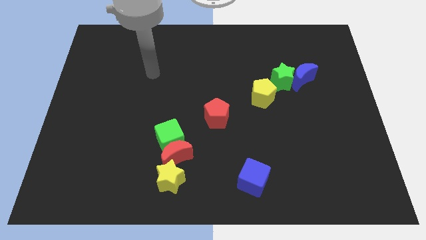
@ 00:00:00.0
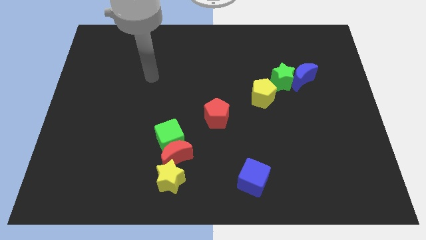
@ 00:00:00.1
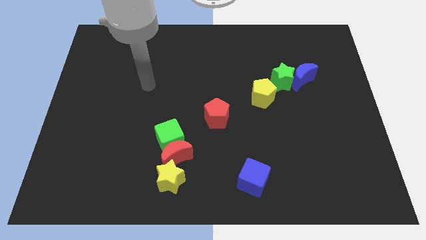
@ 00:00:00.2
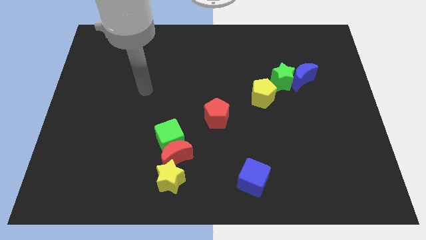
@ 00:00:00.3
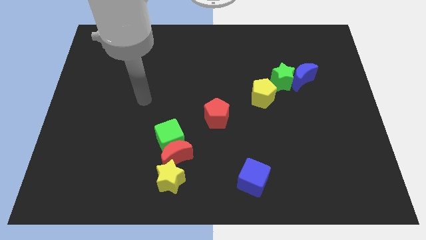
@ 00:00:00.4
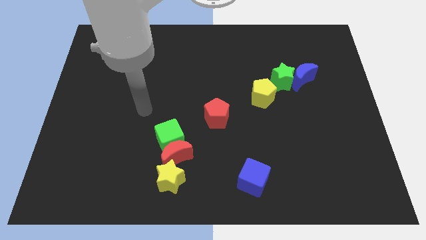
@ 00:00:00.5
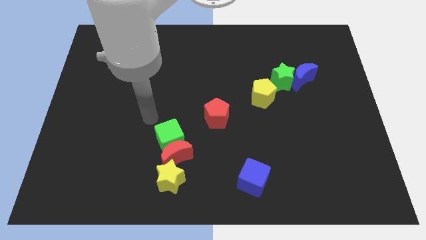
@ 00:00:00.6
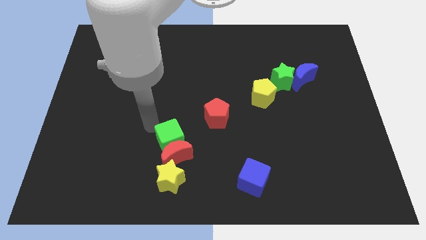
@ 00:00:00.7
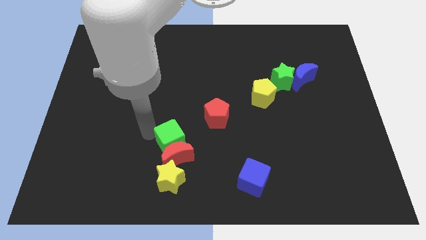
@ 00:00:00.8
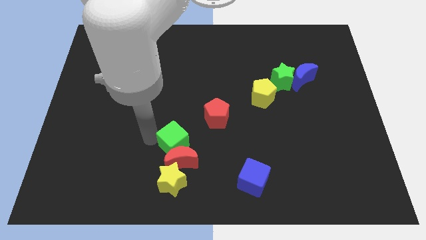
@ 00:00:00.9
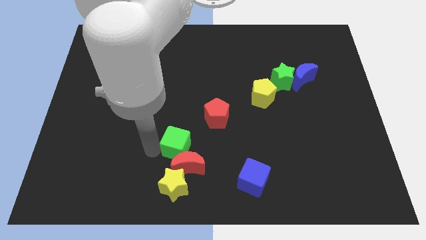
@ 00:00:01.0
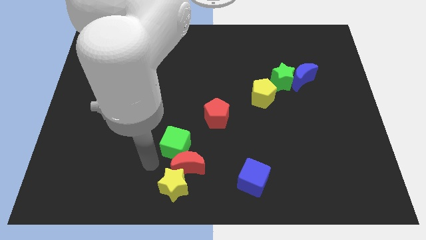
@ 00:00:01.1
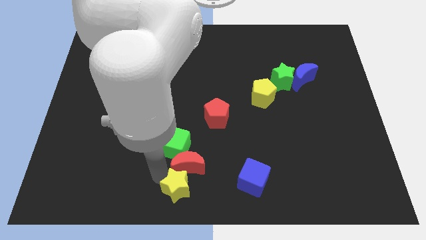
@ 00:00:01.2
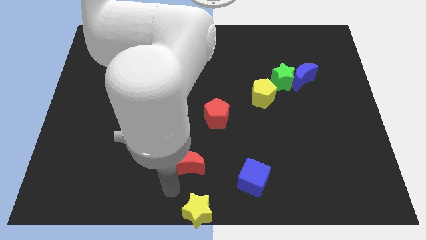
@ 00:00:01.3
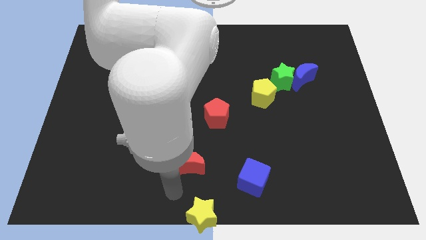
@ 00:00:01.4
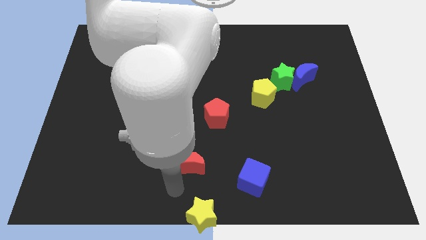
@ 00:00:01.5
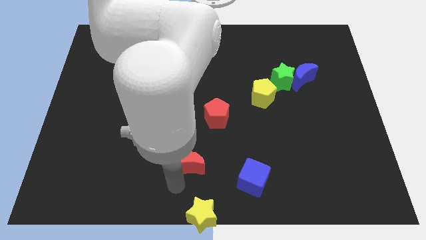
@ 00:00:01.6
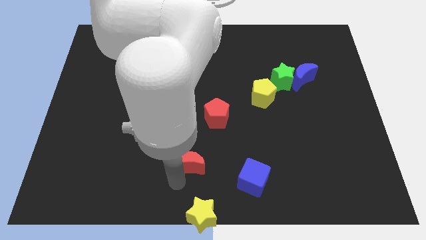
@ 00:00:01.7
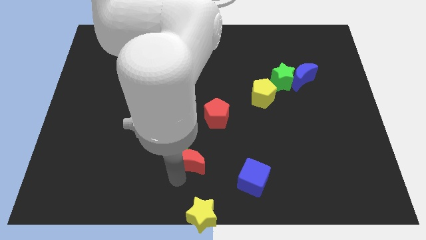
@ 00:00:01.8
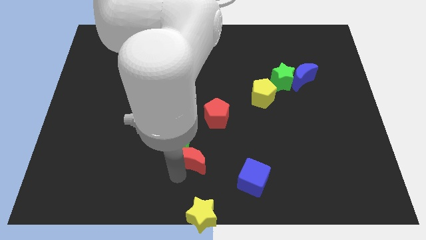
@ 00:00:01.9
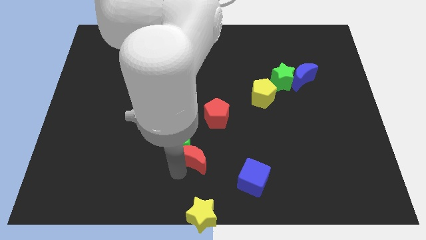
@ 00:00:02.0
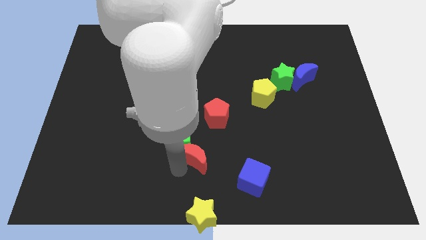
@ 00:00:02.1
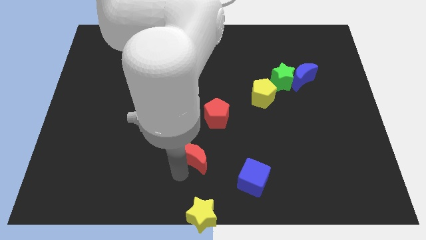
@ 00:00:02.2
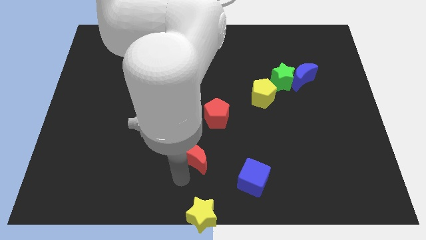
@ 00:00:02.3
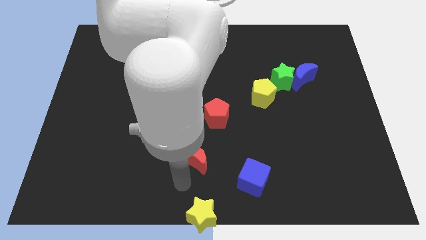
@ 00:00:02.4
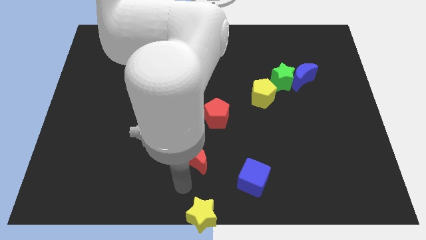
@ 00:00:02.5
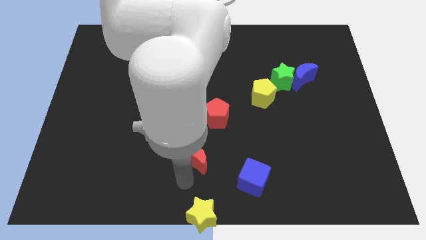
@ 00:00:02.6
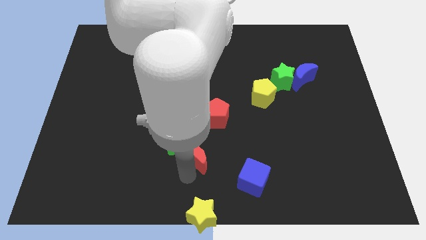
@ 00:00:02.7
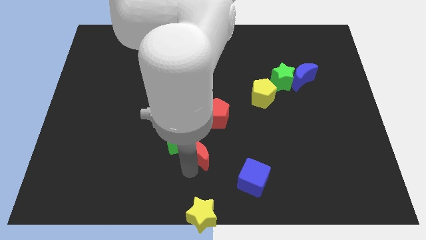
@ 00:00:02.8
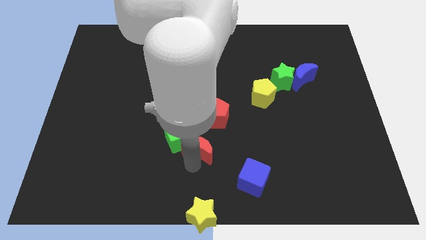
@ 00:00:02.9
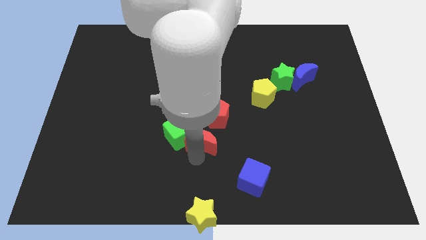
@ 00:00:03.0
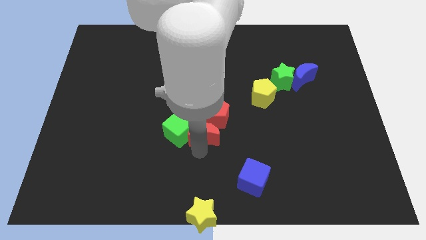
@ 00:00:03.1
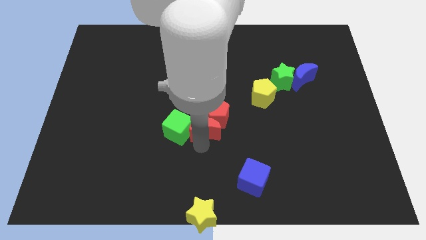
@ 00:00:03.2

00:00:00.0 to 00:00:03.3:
separate the red moon from the green cube and yellow star

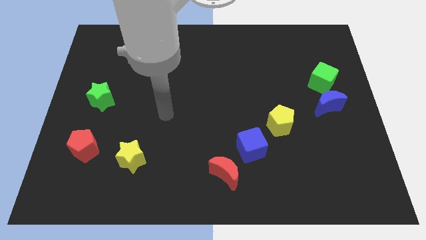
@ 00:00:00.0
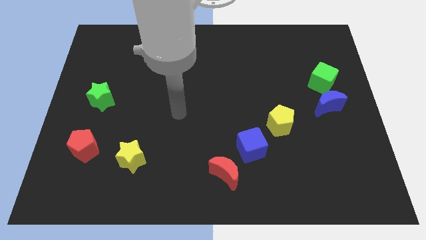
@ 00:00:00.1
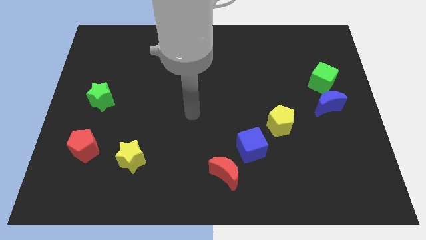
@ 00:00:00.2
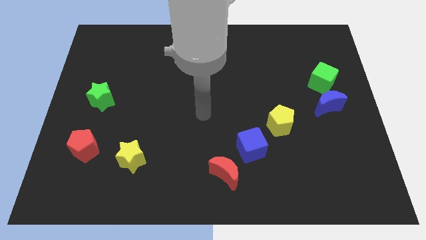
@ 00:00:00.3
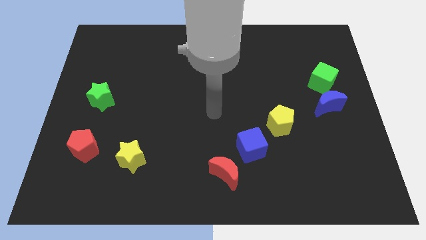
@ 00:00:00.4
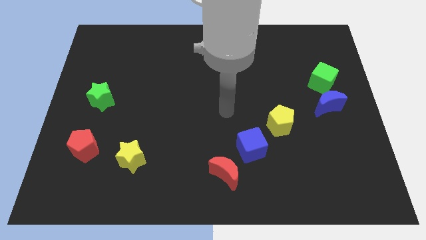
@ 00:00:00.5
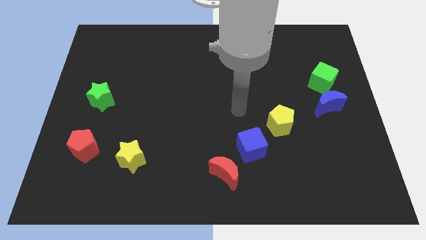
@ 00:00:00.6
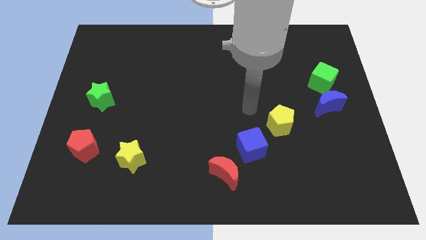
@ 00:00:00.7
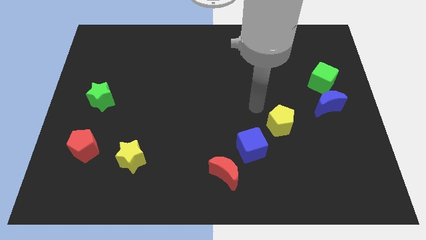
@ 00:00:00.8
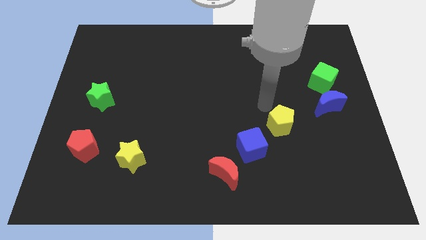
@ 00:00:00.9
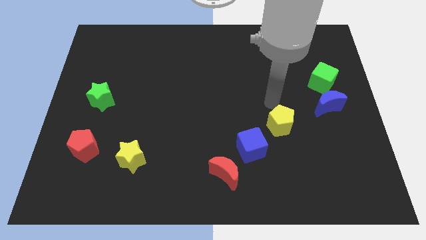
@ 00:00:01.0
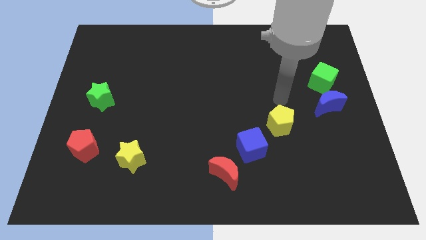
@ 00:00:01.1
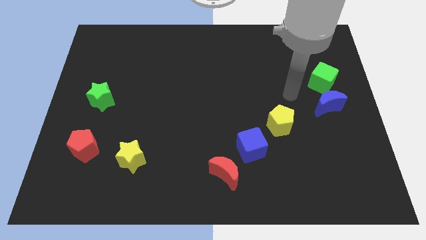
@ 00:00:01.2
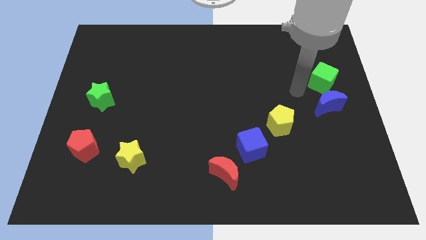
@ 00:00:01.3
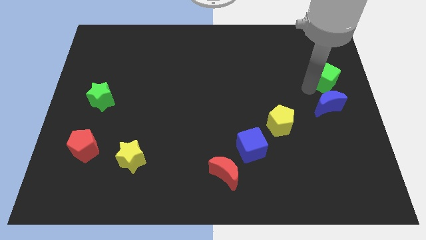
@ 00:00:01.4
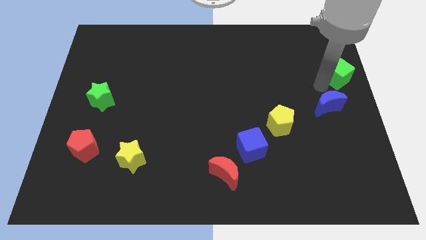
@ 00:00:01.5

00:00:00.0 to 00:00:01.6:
pull the blue moon apart from the green cube

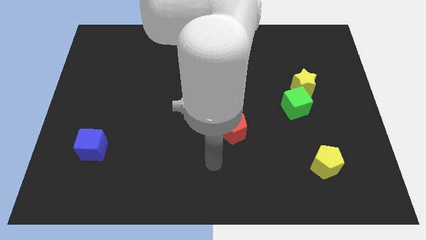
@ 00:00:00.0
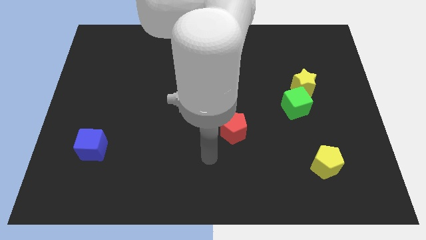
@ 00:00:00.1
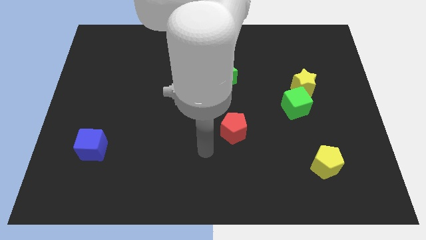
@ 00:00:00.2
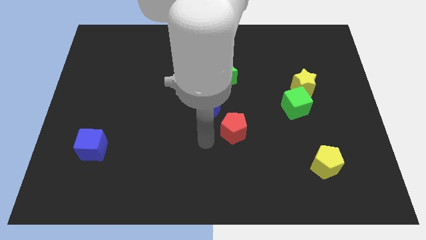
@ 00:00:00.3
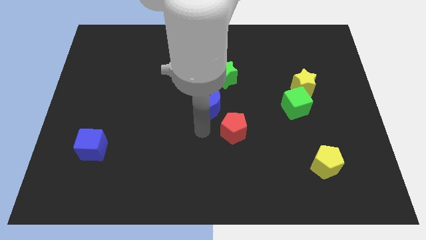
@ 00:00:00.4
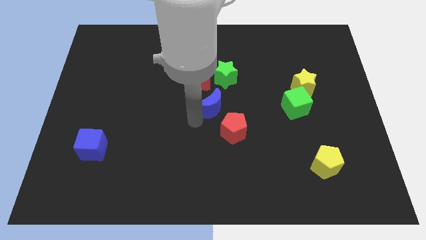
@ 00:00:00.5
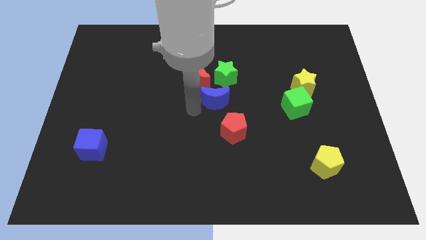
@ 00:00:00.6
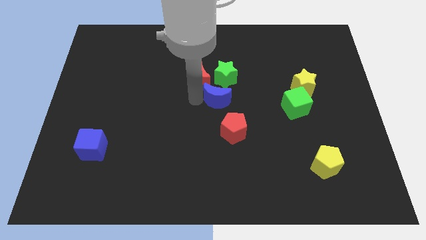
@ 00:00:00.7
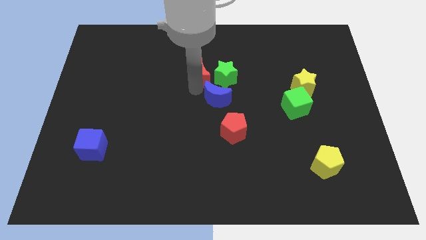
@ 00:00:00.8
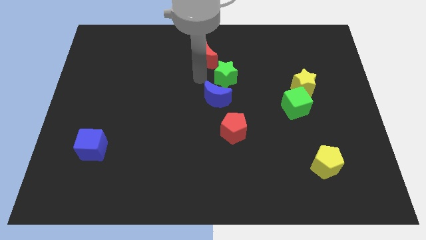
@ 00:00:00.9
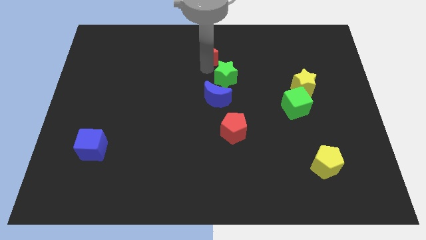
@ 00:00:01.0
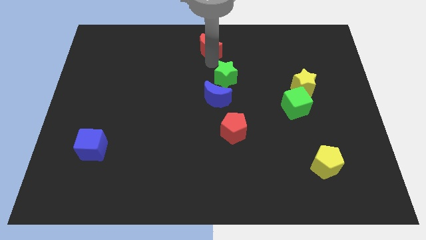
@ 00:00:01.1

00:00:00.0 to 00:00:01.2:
separate the green star from the red moon

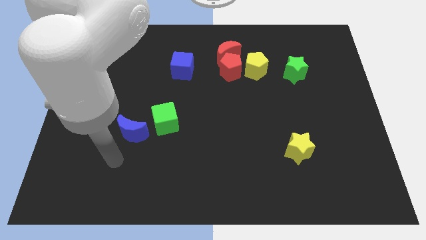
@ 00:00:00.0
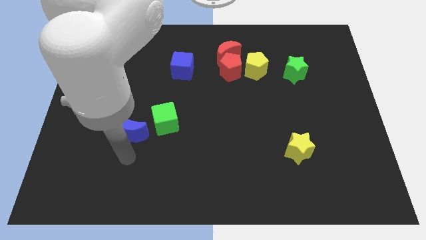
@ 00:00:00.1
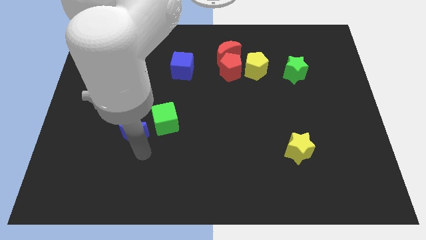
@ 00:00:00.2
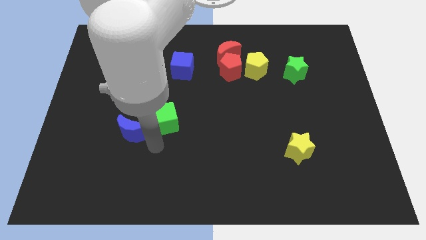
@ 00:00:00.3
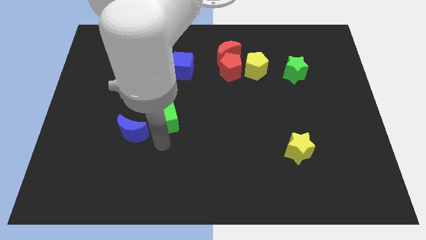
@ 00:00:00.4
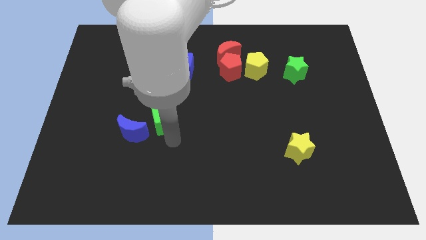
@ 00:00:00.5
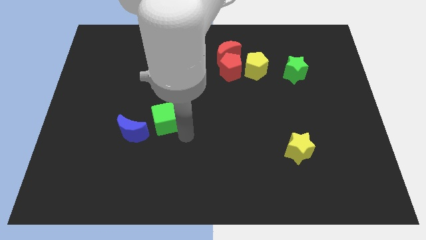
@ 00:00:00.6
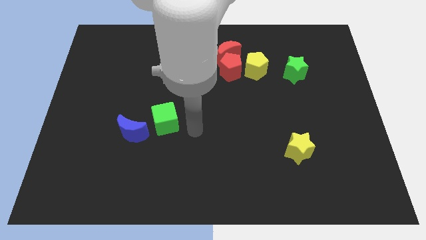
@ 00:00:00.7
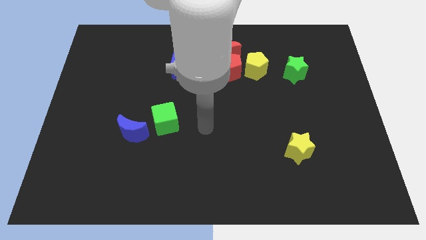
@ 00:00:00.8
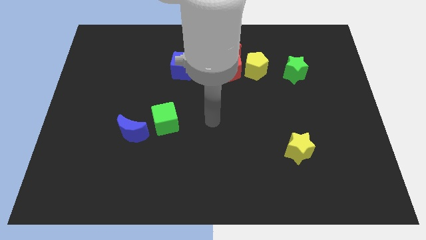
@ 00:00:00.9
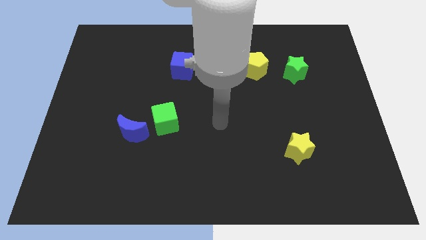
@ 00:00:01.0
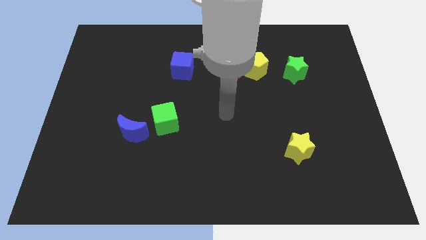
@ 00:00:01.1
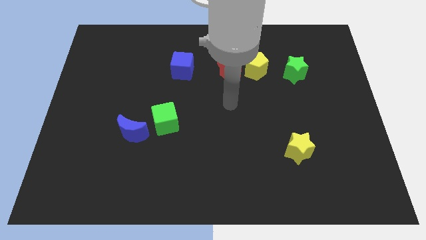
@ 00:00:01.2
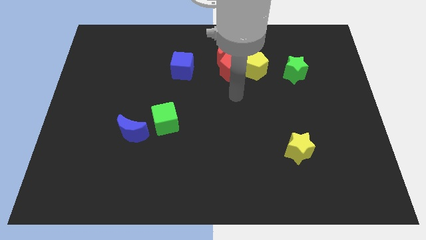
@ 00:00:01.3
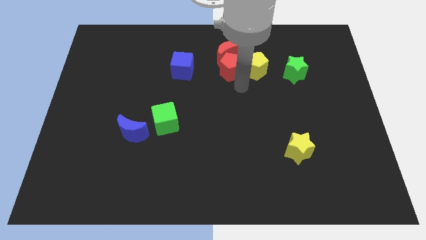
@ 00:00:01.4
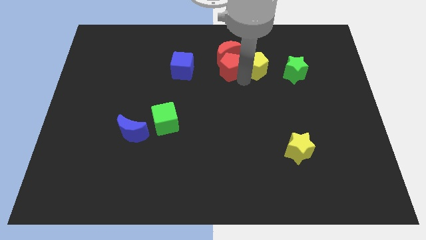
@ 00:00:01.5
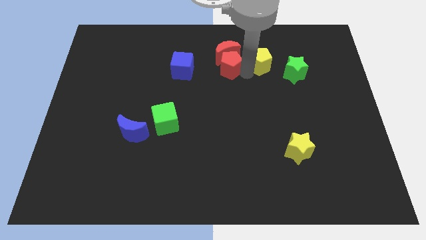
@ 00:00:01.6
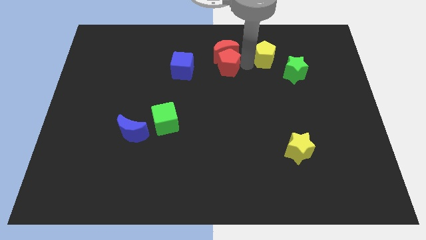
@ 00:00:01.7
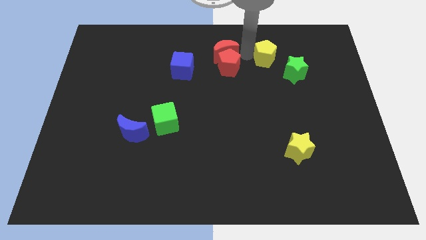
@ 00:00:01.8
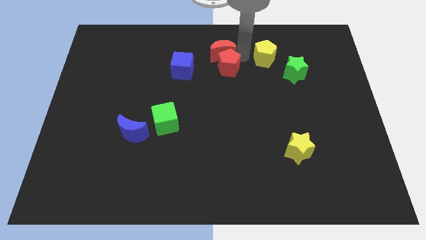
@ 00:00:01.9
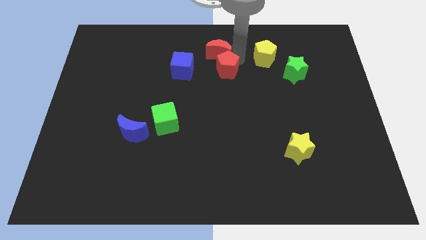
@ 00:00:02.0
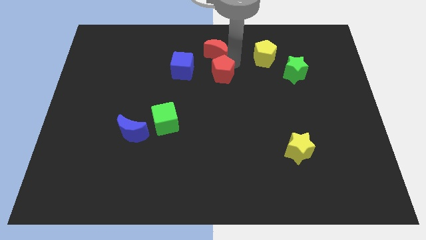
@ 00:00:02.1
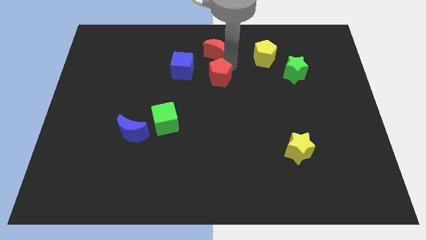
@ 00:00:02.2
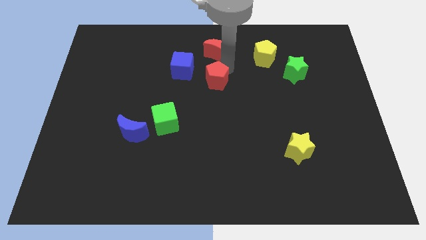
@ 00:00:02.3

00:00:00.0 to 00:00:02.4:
separate the red pentagon from the red moon and yellow pentagon

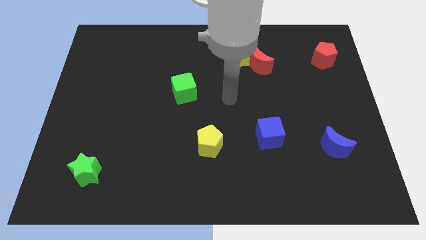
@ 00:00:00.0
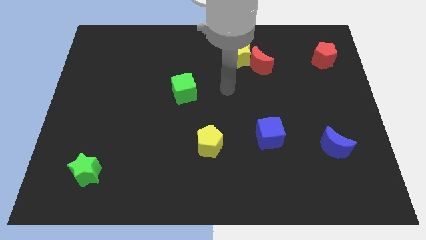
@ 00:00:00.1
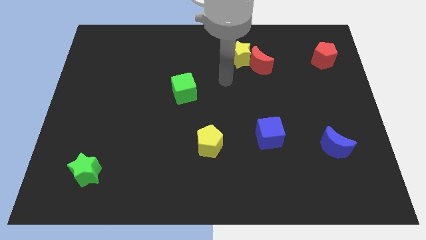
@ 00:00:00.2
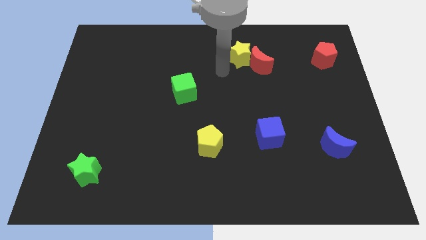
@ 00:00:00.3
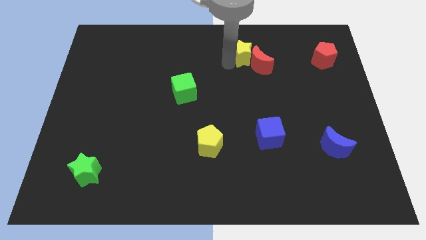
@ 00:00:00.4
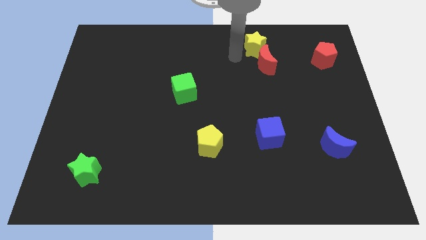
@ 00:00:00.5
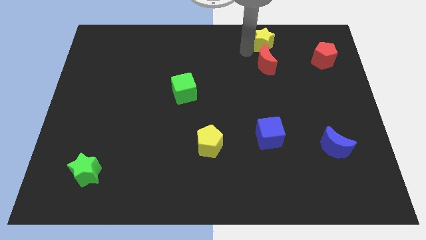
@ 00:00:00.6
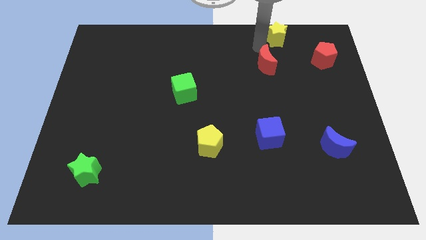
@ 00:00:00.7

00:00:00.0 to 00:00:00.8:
pull the red moon apart from the yellow star
